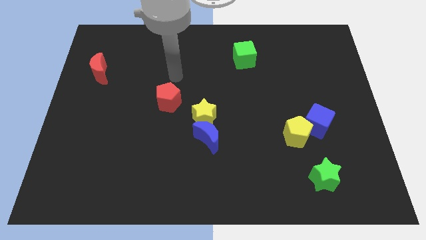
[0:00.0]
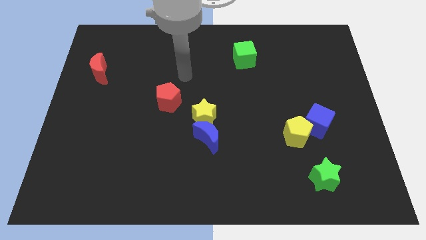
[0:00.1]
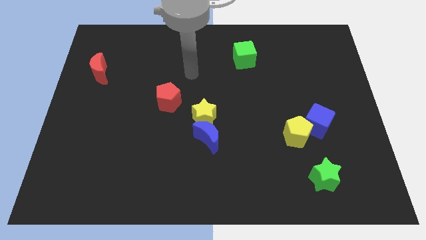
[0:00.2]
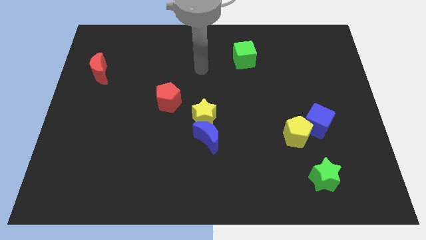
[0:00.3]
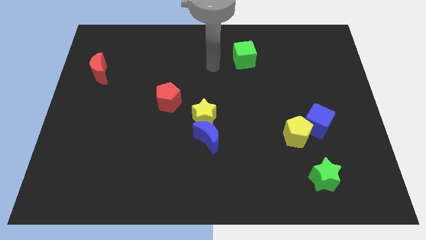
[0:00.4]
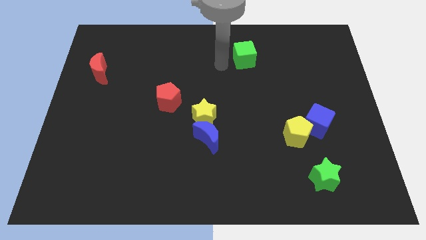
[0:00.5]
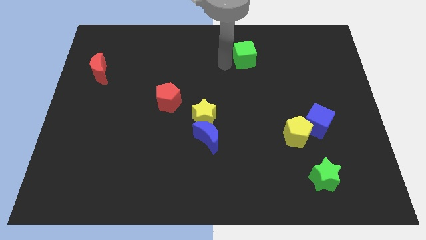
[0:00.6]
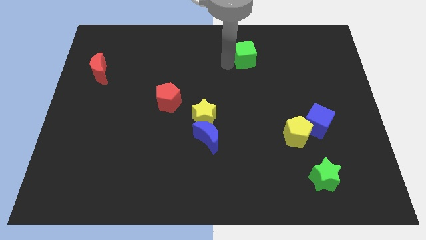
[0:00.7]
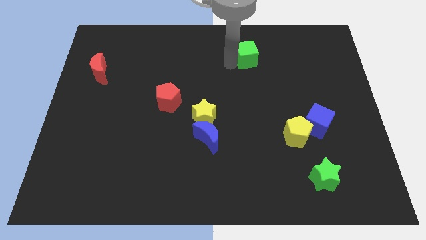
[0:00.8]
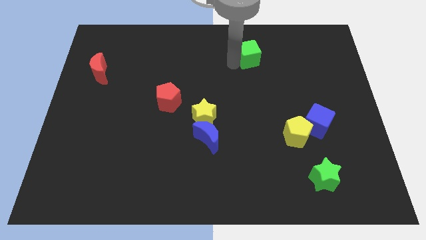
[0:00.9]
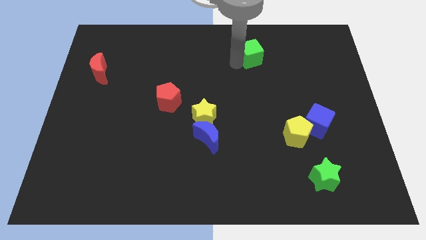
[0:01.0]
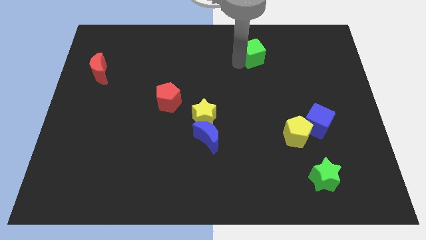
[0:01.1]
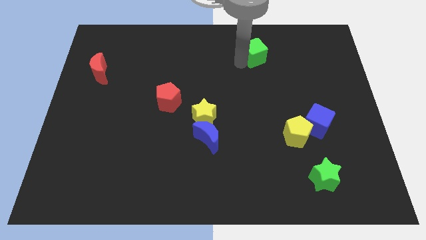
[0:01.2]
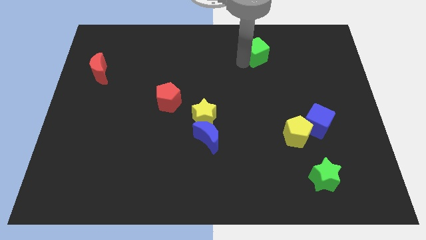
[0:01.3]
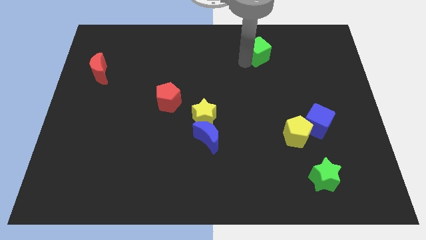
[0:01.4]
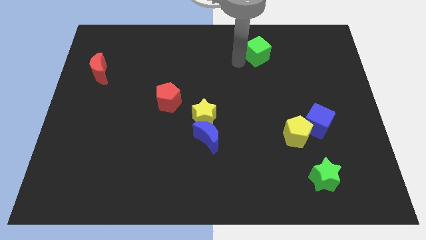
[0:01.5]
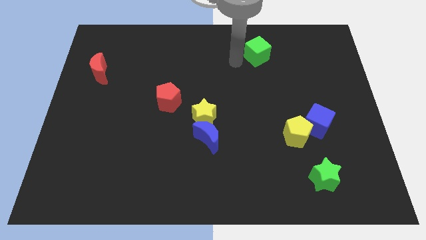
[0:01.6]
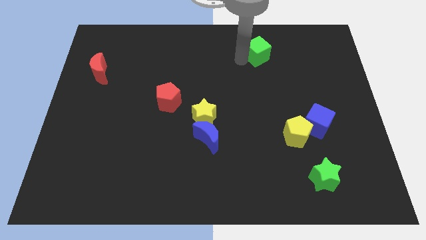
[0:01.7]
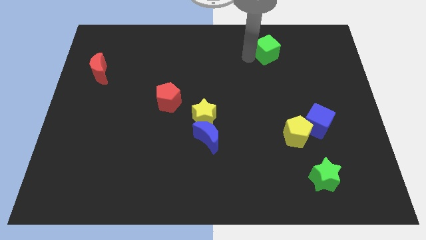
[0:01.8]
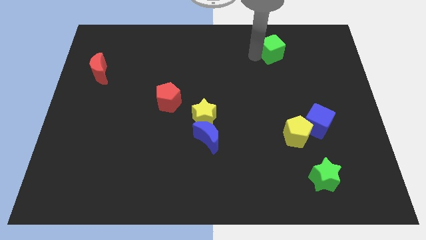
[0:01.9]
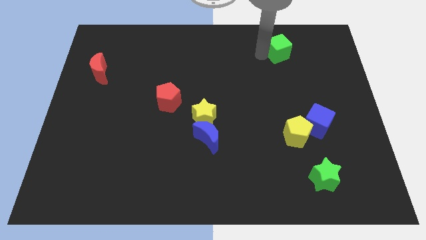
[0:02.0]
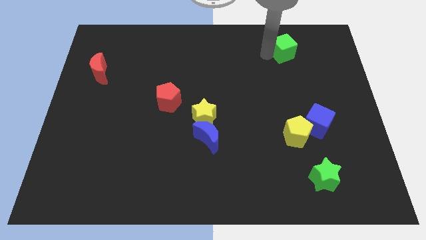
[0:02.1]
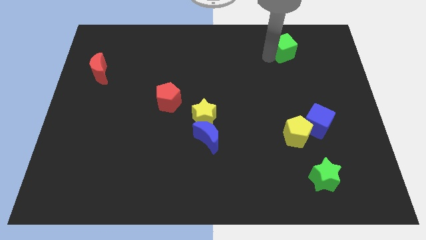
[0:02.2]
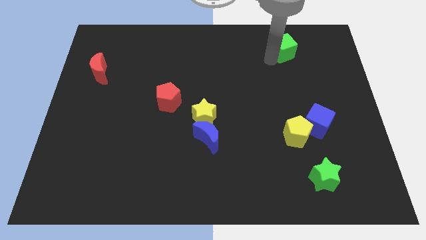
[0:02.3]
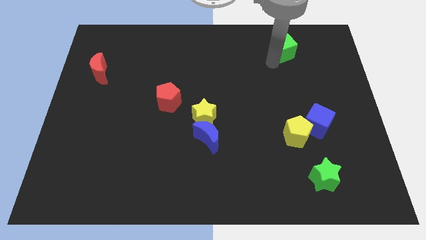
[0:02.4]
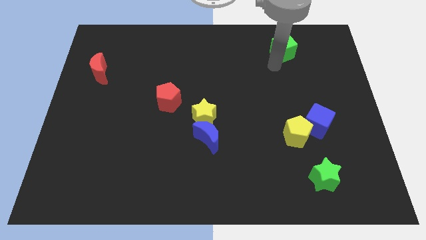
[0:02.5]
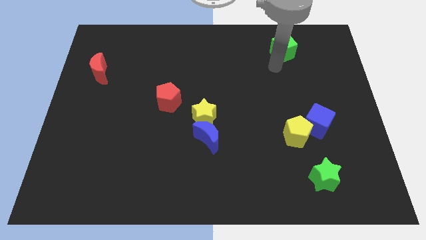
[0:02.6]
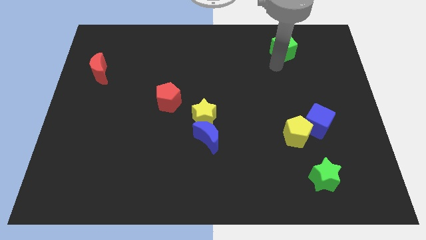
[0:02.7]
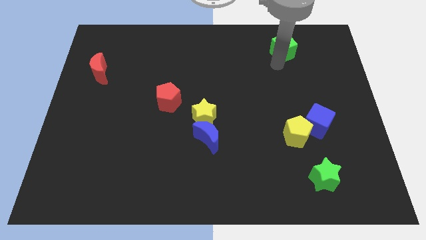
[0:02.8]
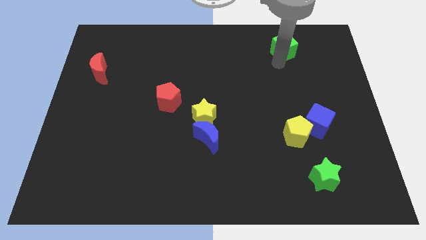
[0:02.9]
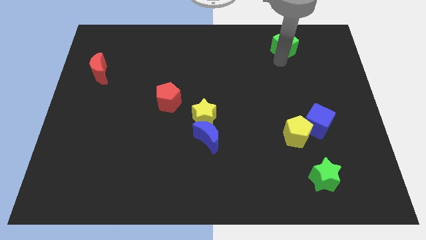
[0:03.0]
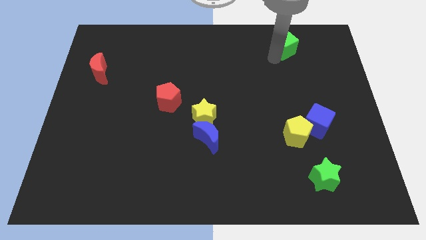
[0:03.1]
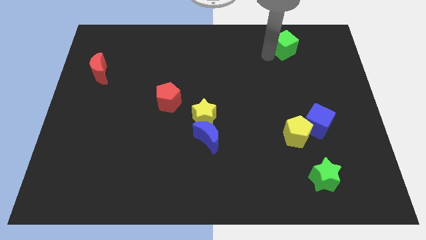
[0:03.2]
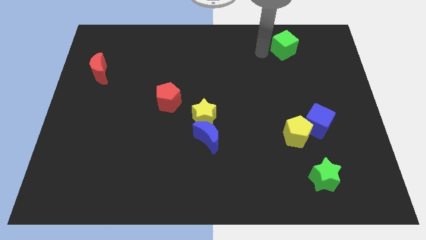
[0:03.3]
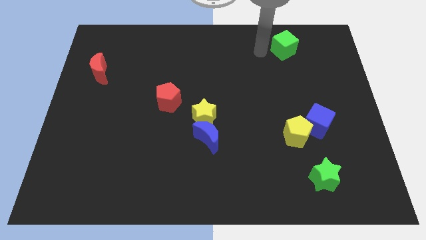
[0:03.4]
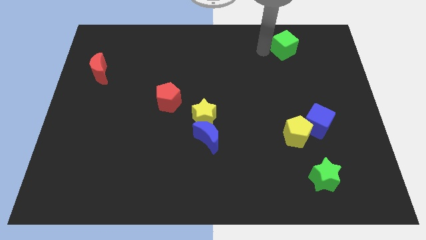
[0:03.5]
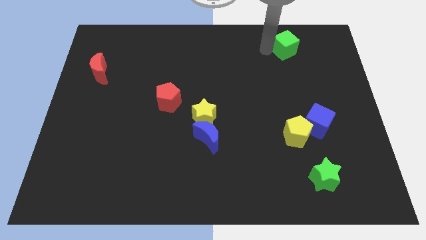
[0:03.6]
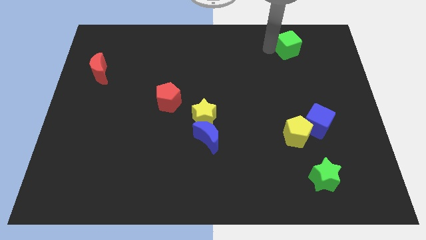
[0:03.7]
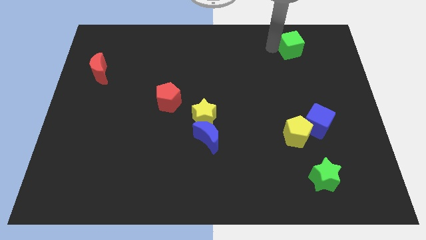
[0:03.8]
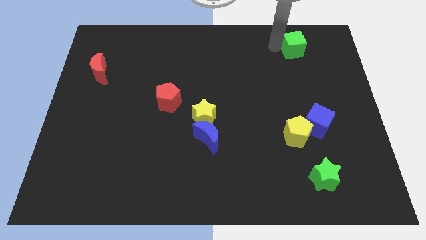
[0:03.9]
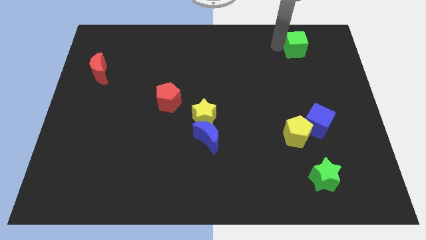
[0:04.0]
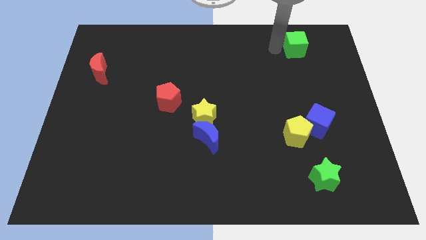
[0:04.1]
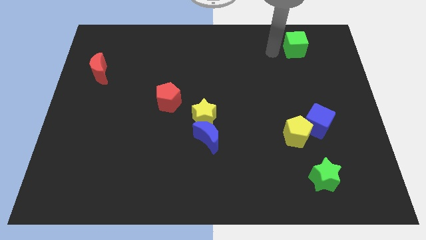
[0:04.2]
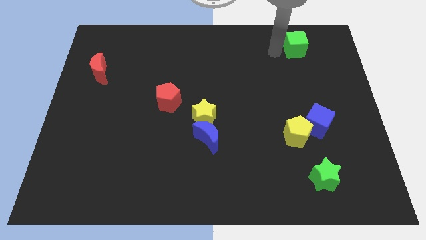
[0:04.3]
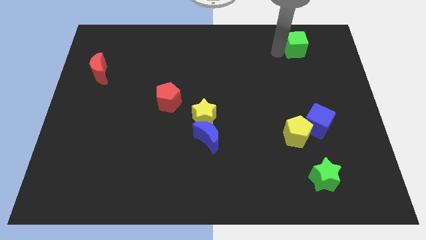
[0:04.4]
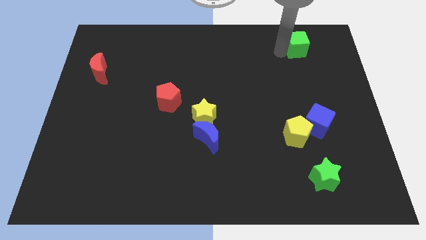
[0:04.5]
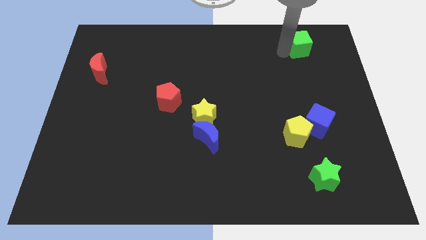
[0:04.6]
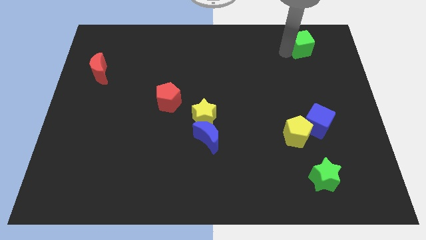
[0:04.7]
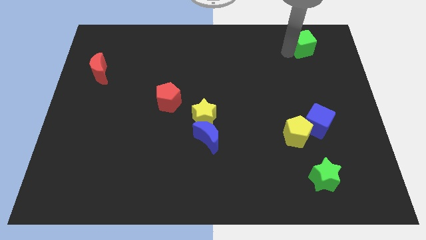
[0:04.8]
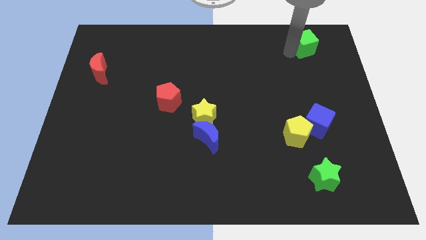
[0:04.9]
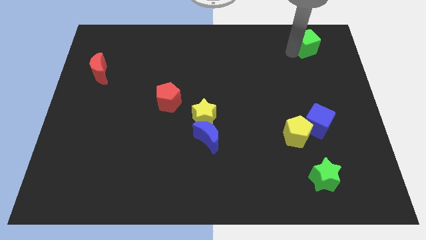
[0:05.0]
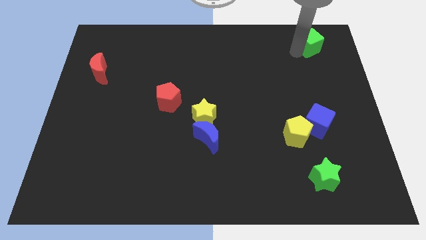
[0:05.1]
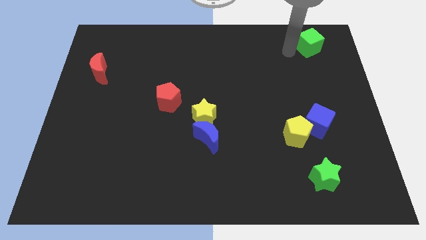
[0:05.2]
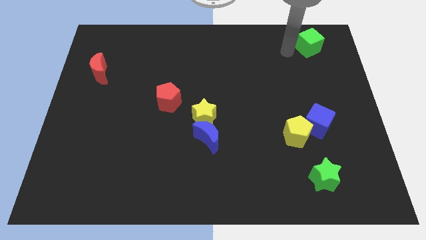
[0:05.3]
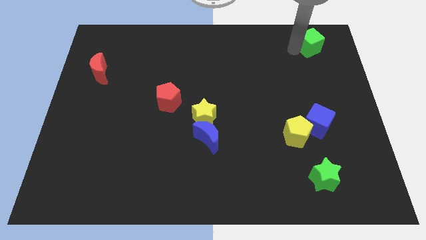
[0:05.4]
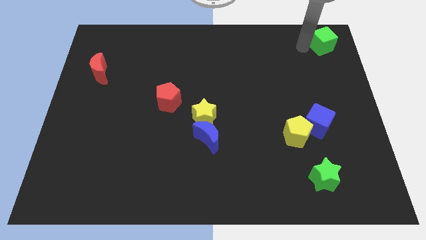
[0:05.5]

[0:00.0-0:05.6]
push the green cube to the top right of the board
